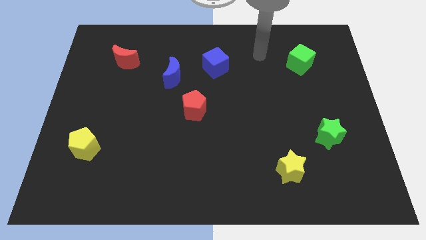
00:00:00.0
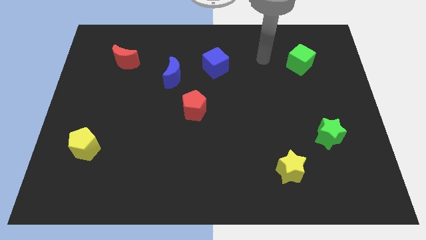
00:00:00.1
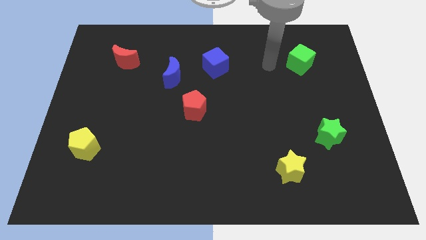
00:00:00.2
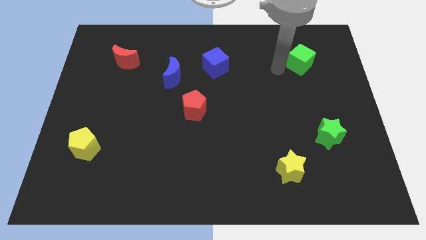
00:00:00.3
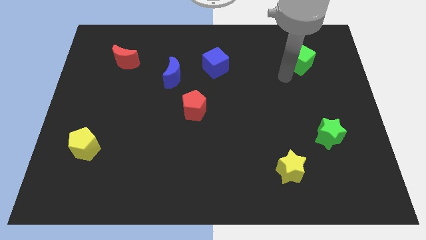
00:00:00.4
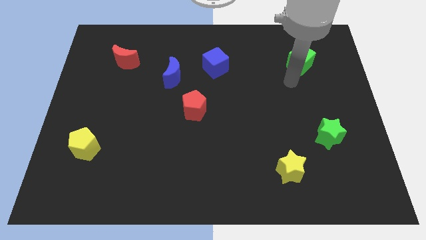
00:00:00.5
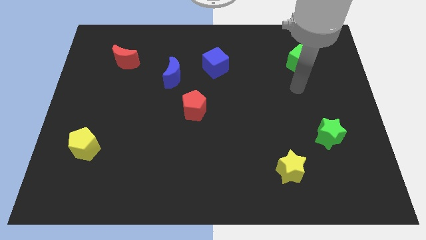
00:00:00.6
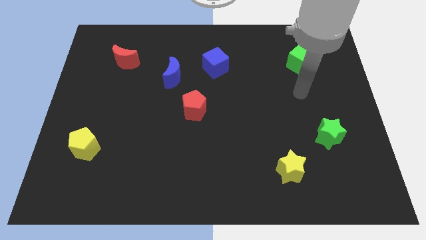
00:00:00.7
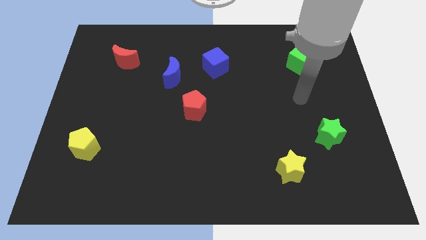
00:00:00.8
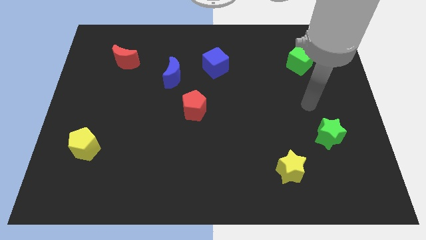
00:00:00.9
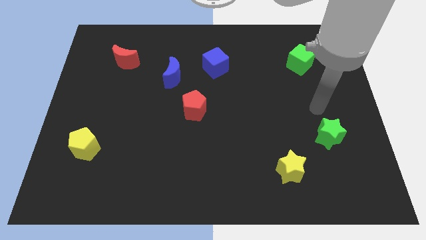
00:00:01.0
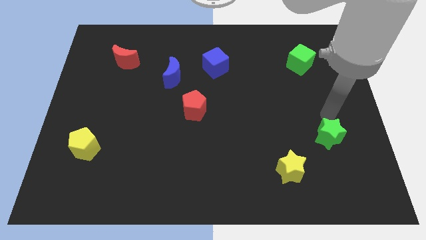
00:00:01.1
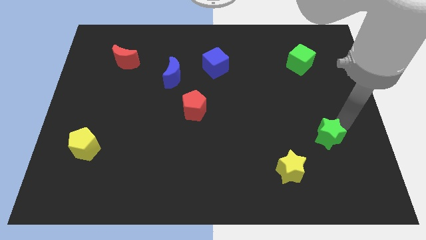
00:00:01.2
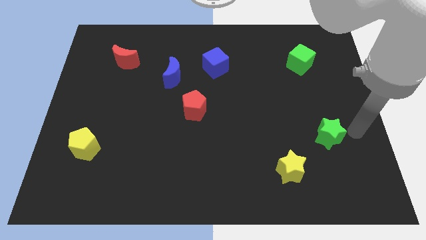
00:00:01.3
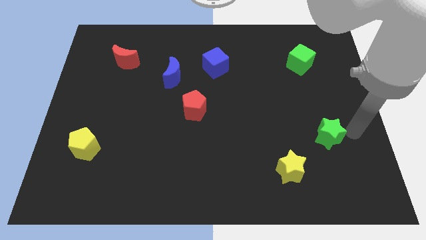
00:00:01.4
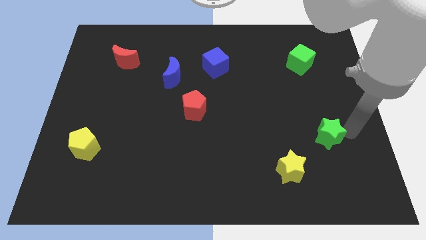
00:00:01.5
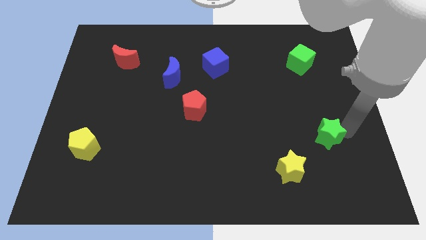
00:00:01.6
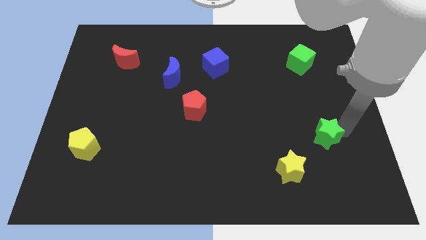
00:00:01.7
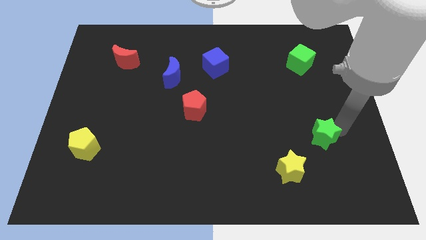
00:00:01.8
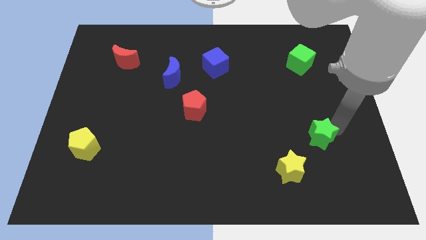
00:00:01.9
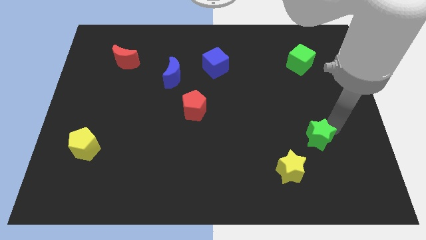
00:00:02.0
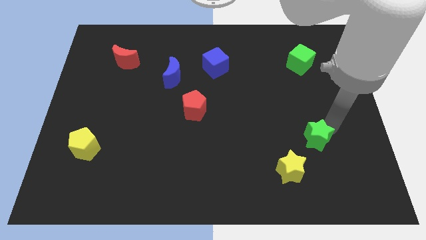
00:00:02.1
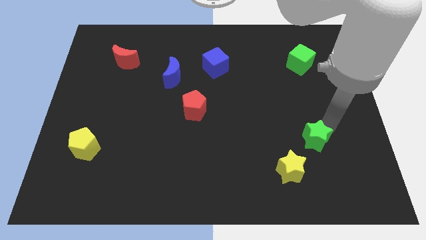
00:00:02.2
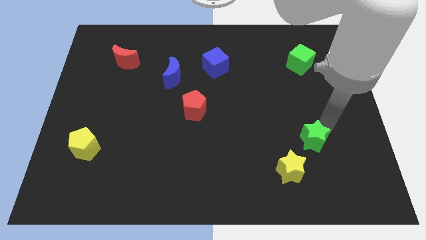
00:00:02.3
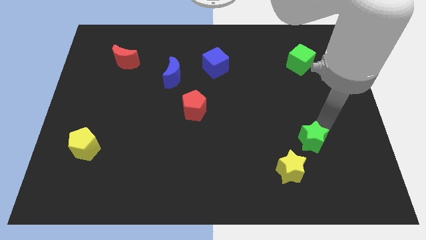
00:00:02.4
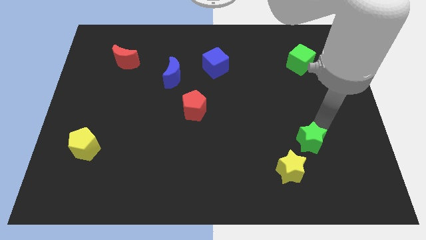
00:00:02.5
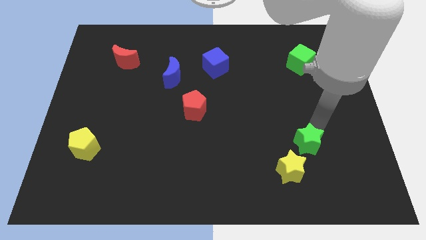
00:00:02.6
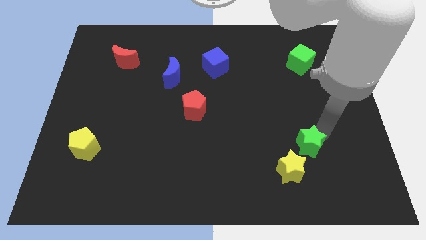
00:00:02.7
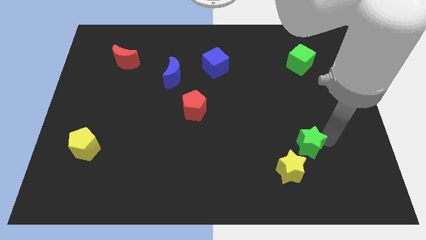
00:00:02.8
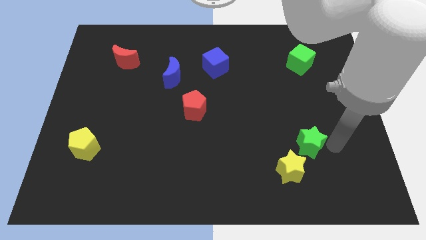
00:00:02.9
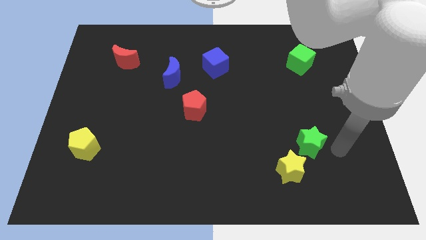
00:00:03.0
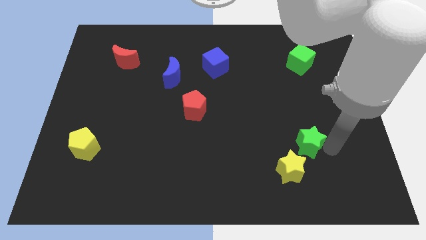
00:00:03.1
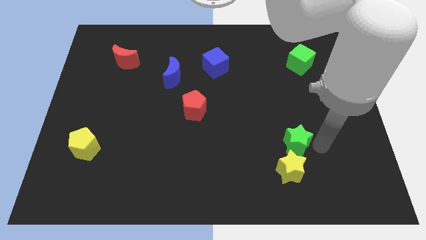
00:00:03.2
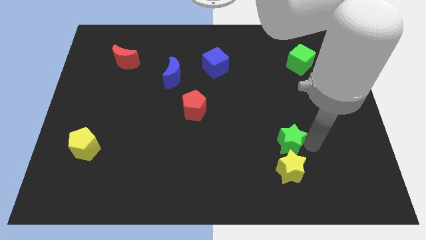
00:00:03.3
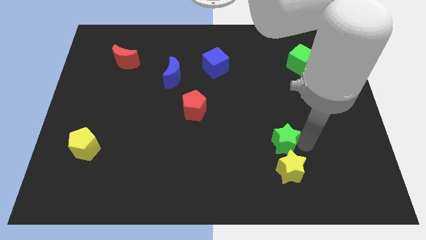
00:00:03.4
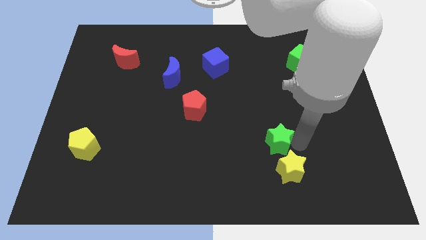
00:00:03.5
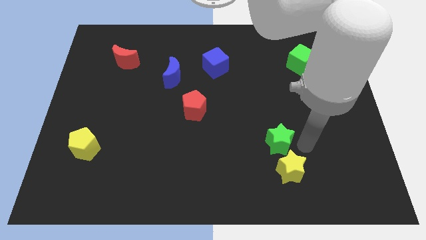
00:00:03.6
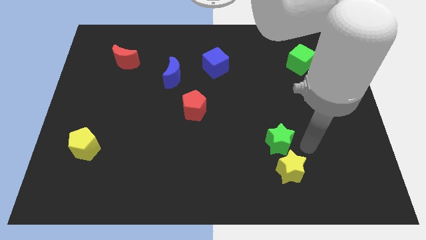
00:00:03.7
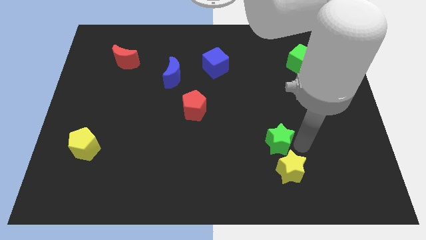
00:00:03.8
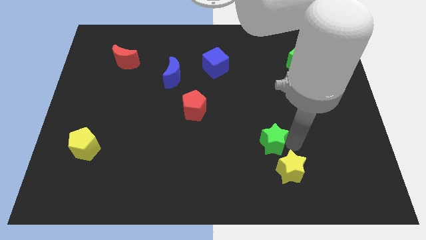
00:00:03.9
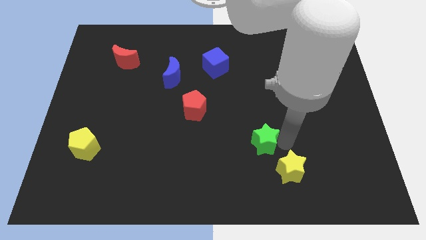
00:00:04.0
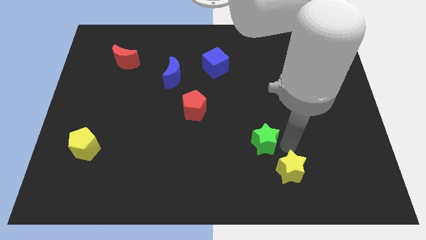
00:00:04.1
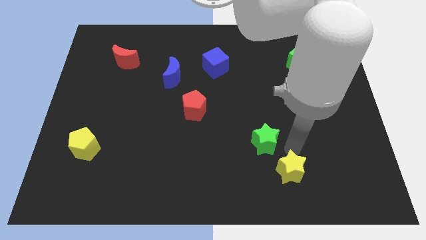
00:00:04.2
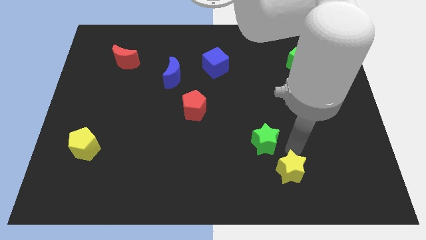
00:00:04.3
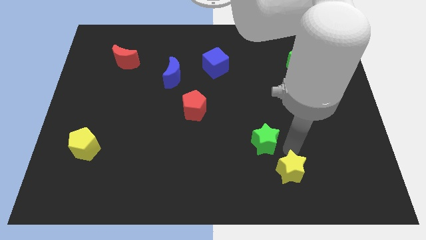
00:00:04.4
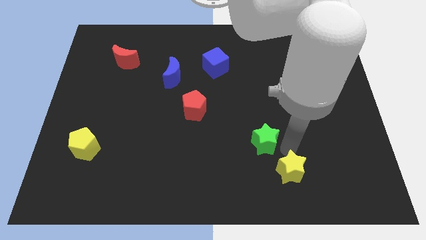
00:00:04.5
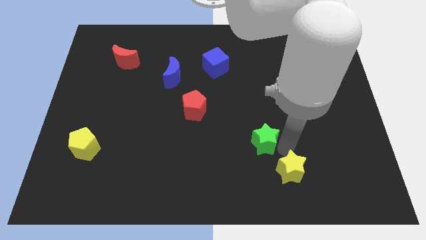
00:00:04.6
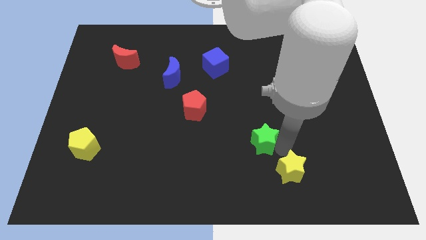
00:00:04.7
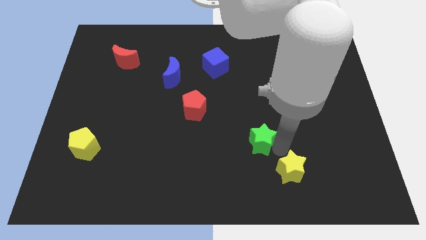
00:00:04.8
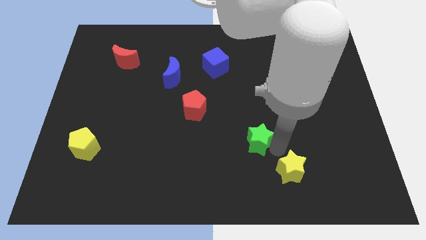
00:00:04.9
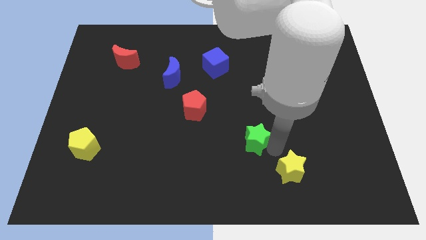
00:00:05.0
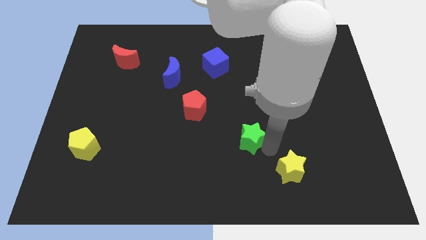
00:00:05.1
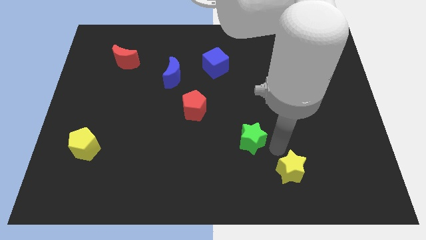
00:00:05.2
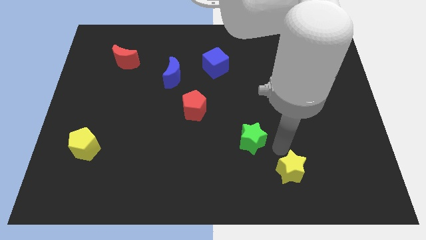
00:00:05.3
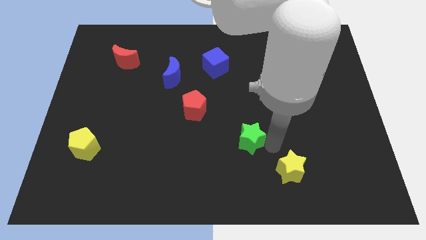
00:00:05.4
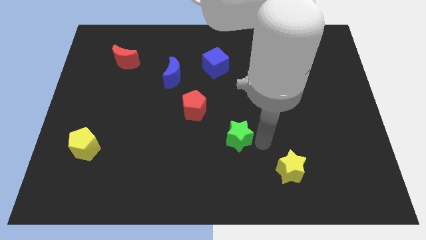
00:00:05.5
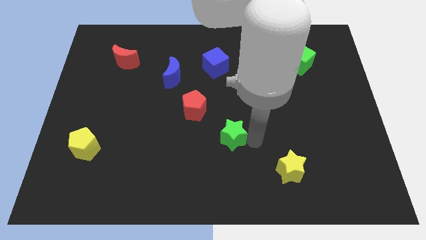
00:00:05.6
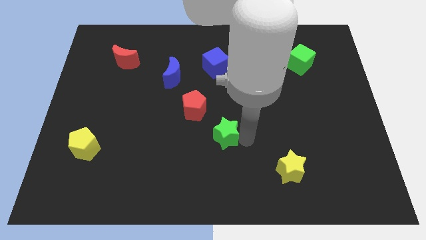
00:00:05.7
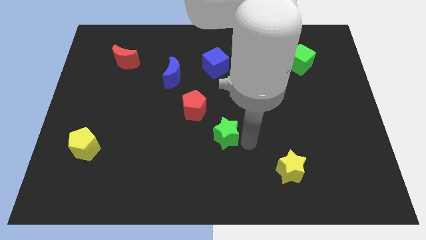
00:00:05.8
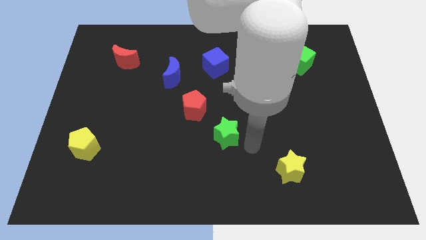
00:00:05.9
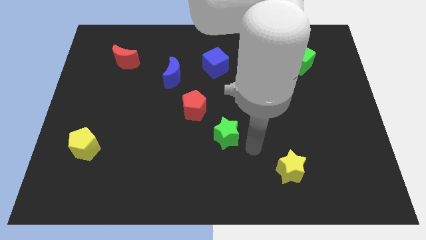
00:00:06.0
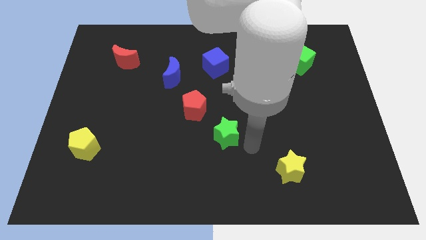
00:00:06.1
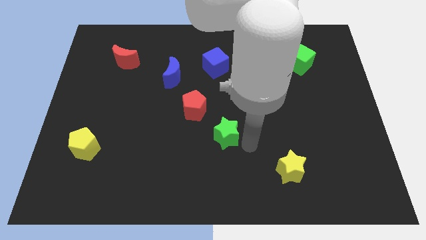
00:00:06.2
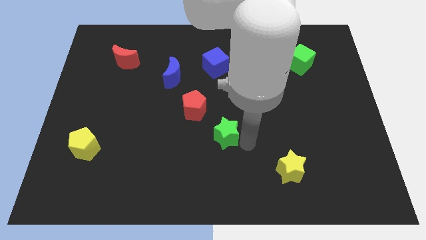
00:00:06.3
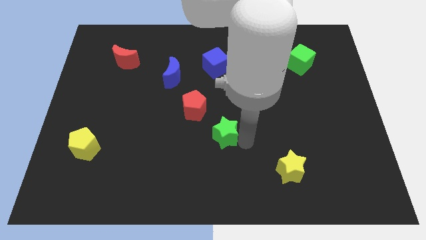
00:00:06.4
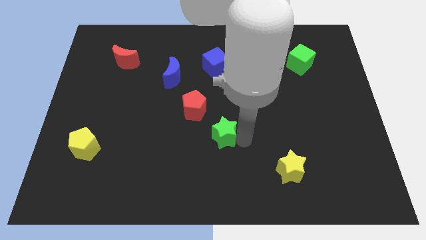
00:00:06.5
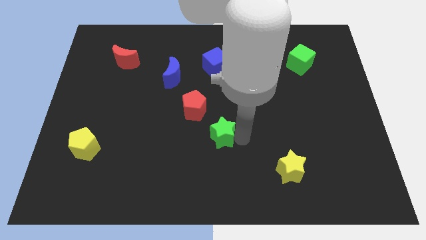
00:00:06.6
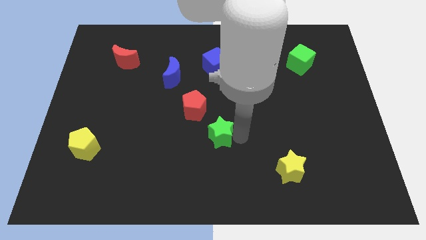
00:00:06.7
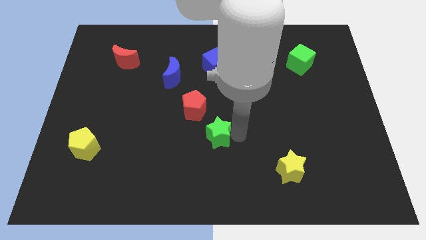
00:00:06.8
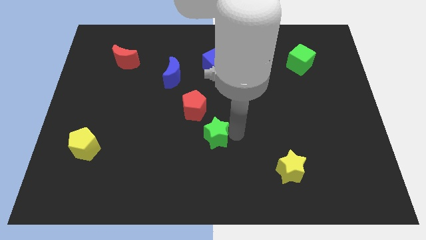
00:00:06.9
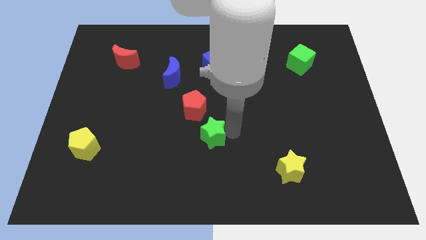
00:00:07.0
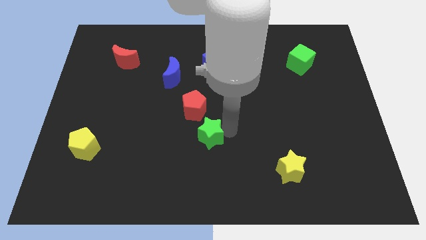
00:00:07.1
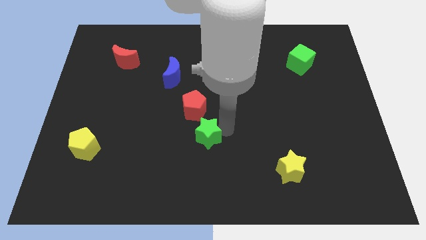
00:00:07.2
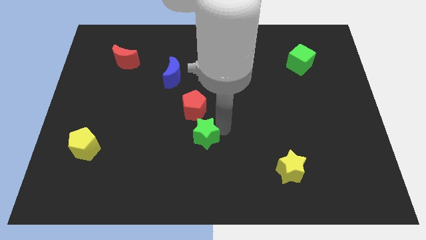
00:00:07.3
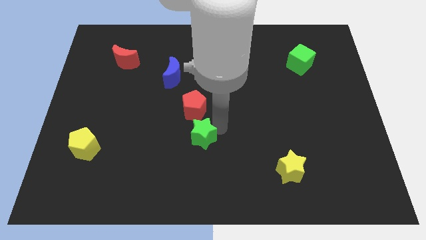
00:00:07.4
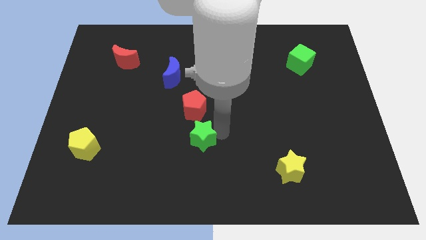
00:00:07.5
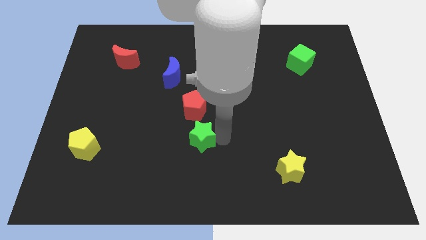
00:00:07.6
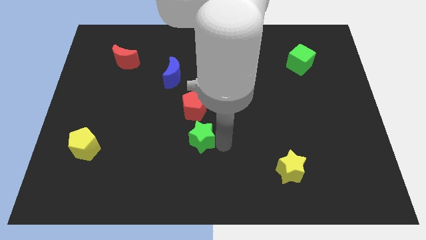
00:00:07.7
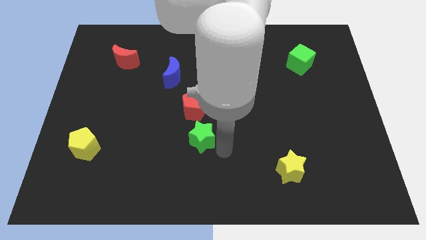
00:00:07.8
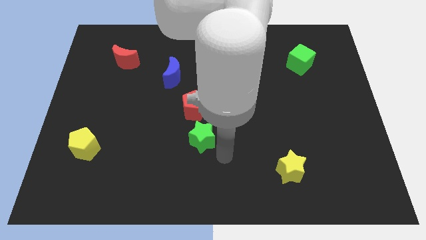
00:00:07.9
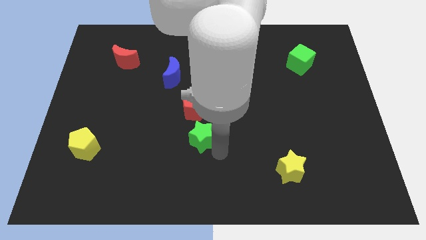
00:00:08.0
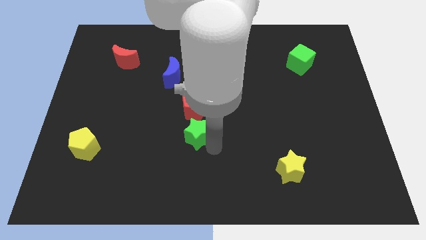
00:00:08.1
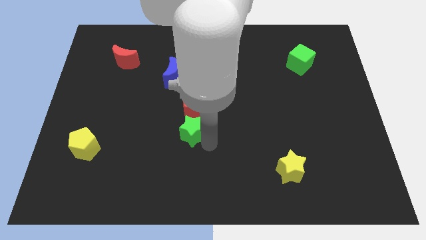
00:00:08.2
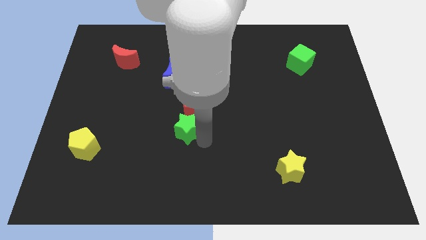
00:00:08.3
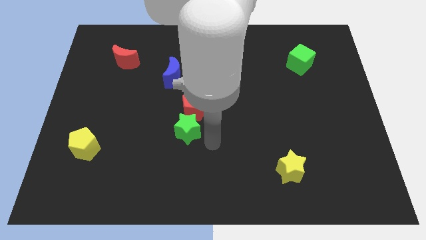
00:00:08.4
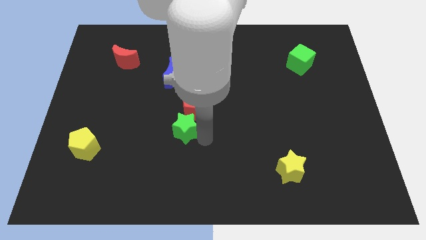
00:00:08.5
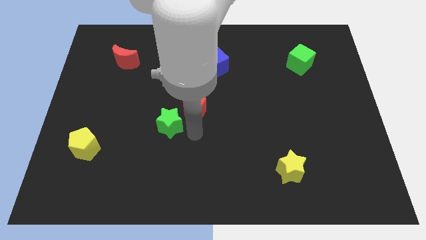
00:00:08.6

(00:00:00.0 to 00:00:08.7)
push the green star left of the red pentagon
